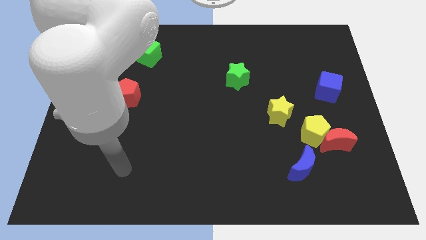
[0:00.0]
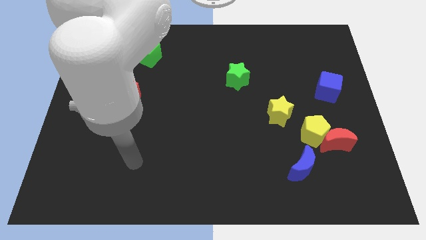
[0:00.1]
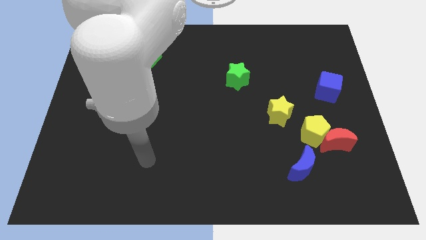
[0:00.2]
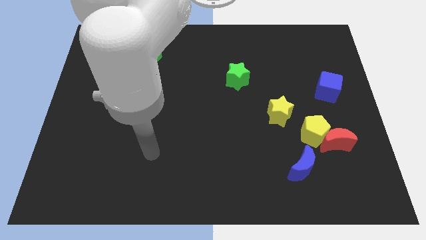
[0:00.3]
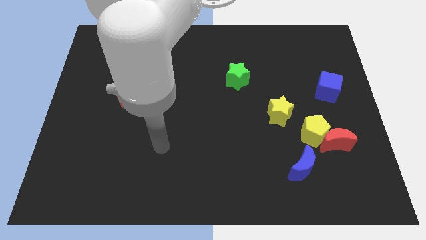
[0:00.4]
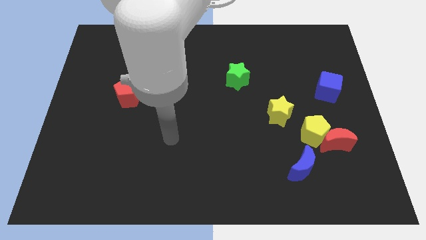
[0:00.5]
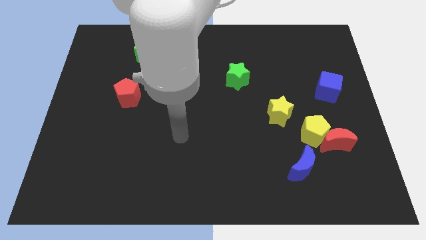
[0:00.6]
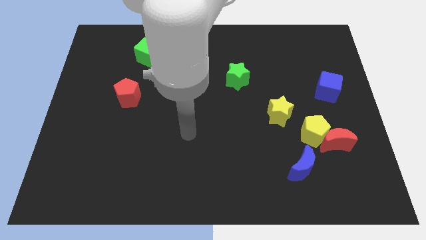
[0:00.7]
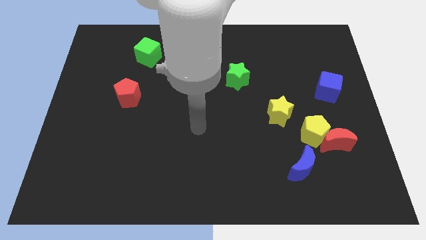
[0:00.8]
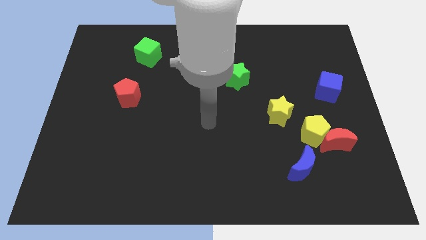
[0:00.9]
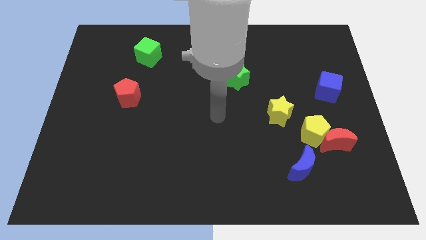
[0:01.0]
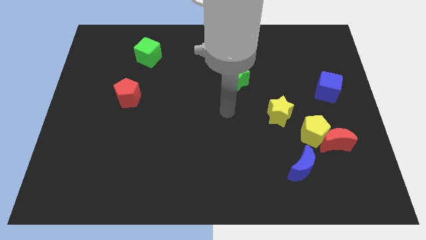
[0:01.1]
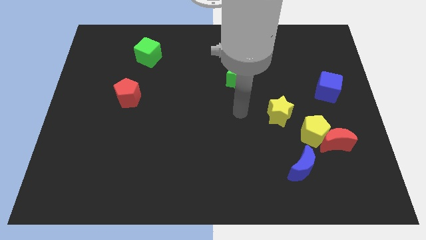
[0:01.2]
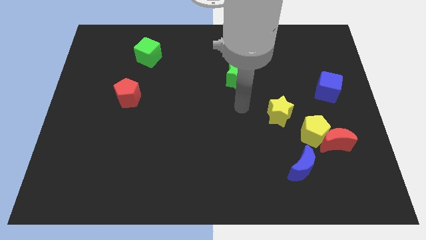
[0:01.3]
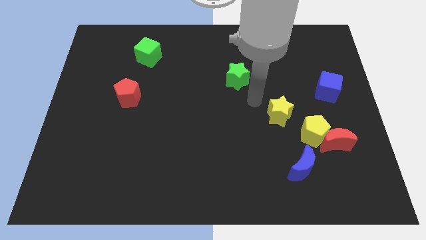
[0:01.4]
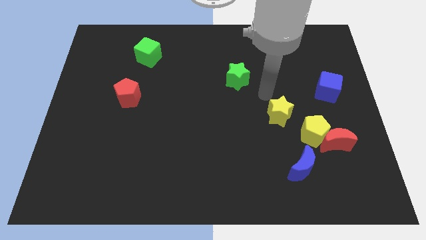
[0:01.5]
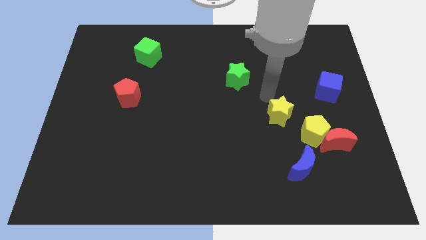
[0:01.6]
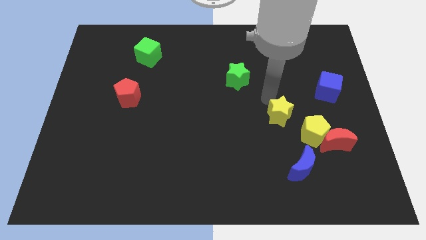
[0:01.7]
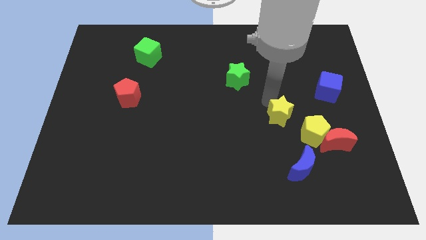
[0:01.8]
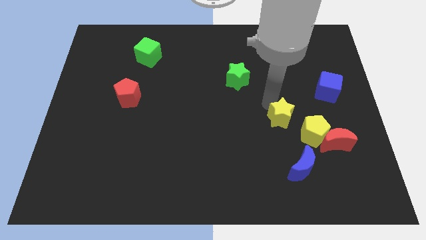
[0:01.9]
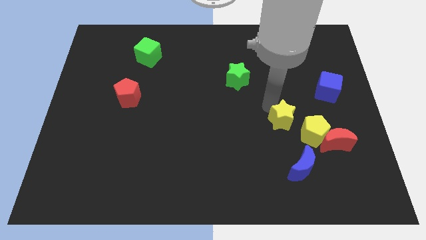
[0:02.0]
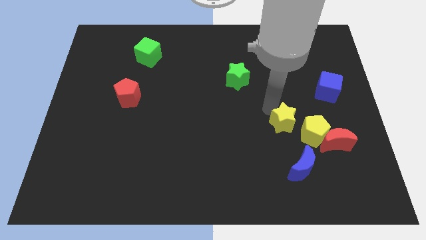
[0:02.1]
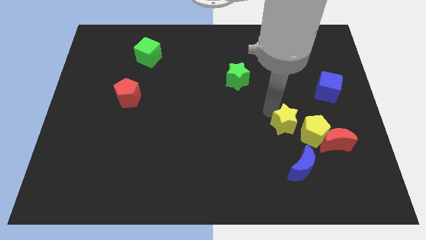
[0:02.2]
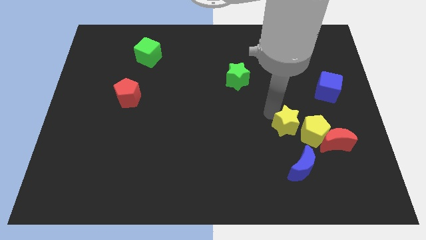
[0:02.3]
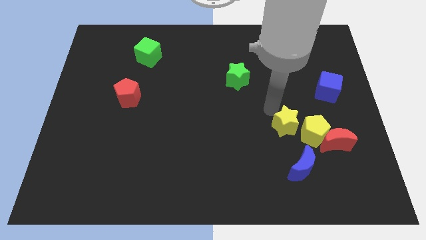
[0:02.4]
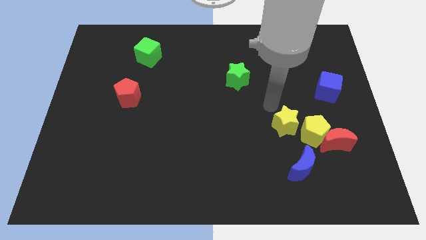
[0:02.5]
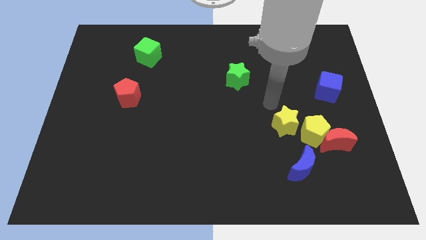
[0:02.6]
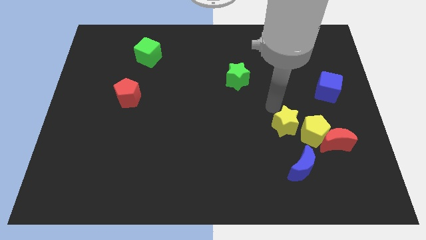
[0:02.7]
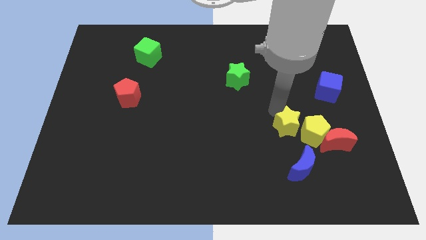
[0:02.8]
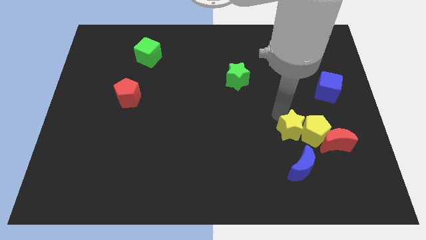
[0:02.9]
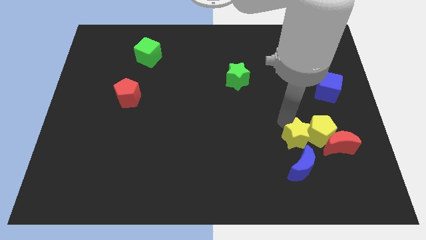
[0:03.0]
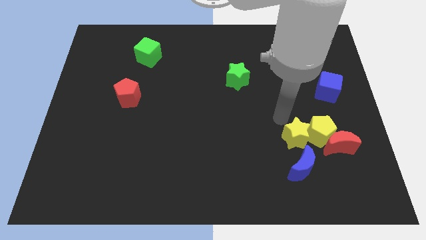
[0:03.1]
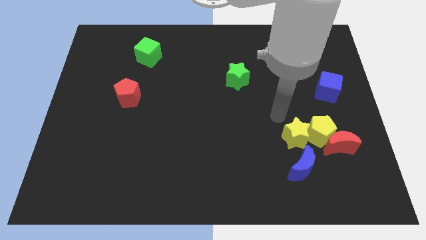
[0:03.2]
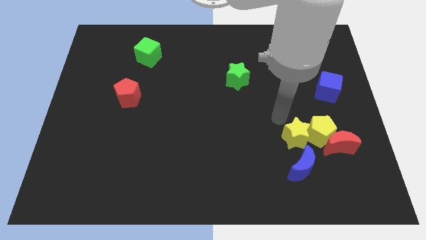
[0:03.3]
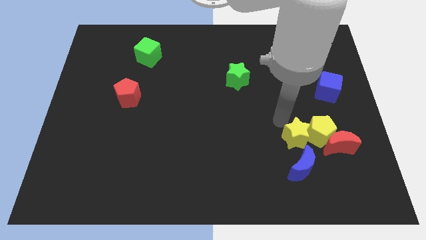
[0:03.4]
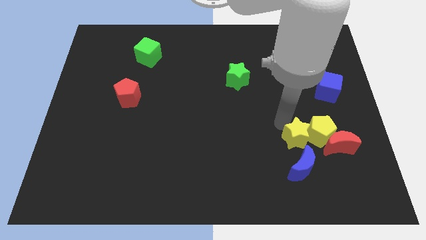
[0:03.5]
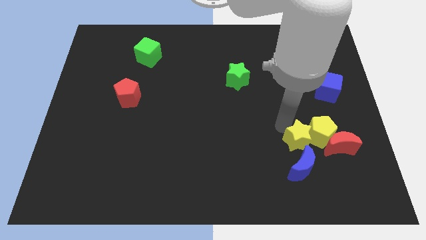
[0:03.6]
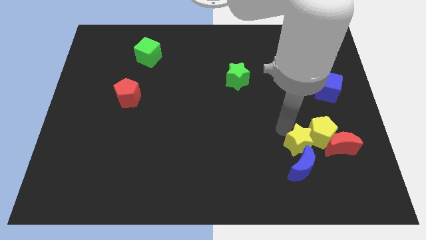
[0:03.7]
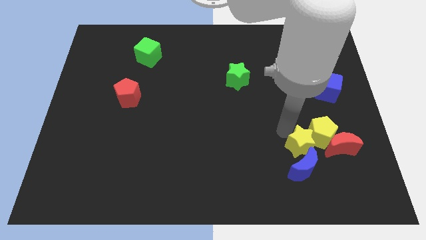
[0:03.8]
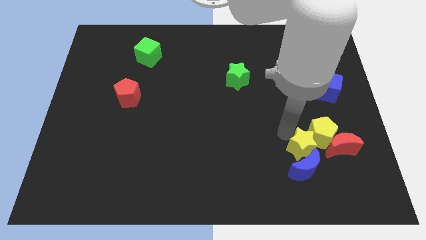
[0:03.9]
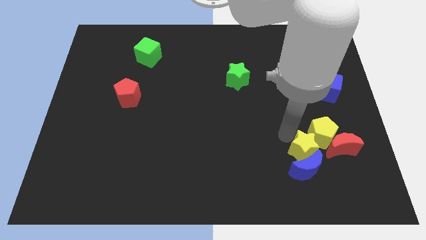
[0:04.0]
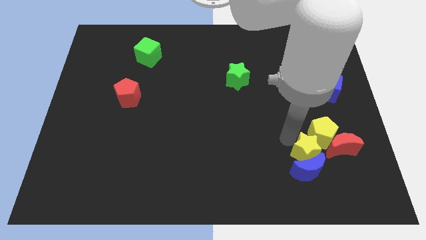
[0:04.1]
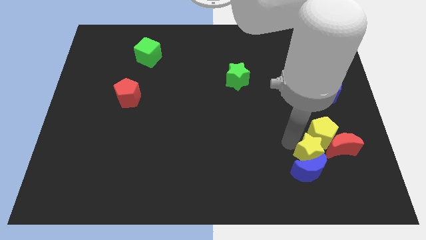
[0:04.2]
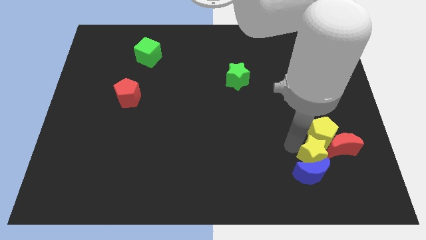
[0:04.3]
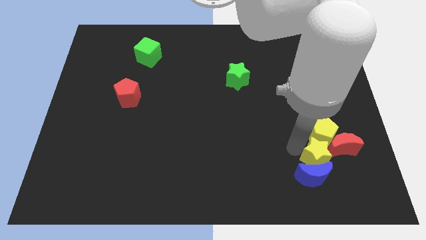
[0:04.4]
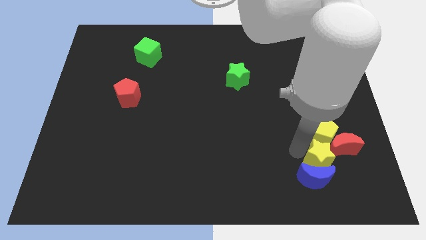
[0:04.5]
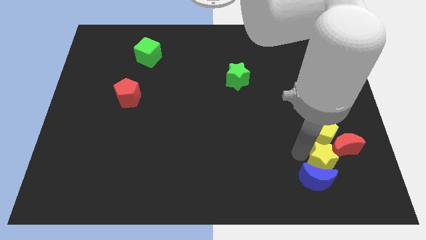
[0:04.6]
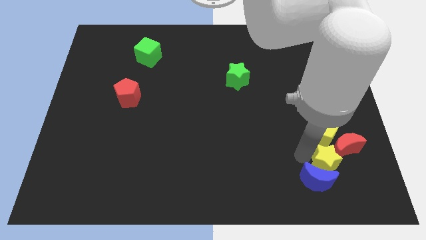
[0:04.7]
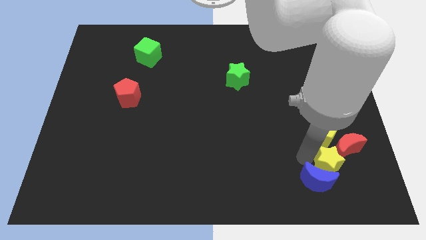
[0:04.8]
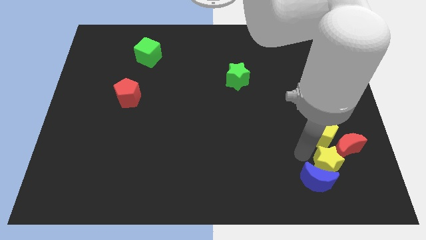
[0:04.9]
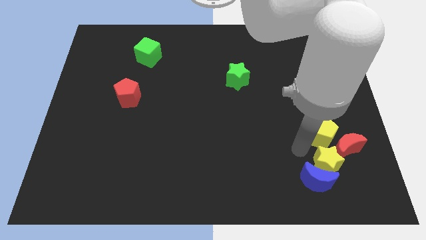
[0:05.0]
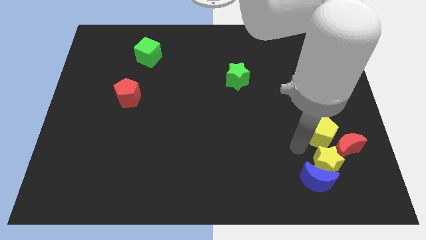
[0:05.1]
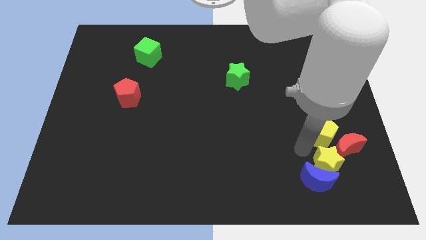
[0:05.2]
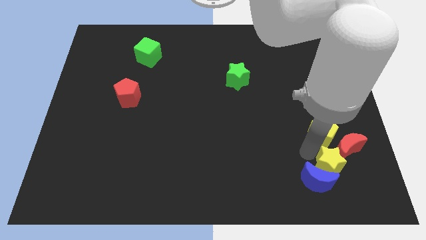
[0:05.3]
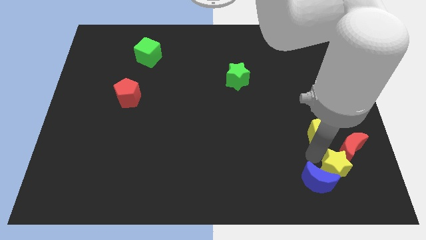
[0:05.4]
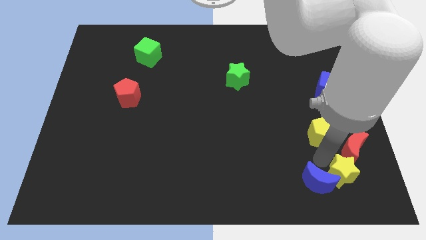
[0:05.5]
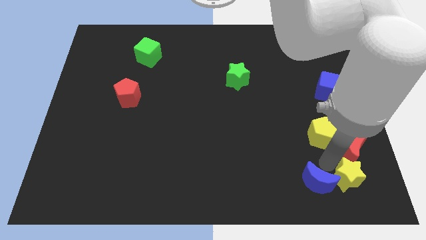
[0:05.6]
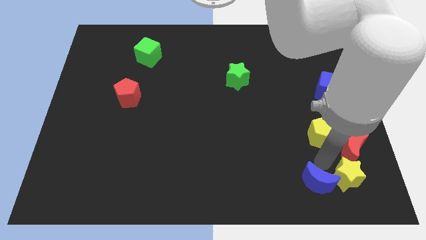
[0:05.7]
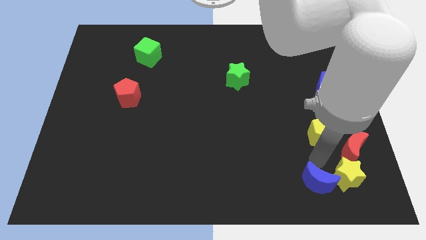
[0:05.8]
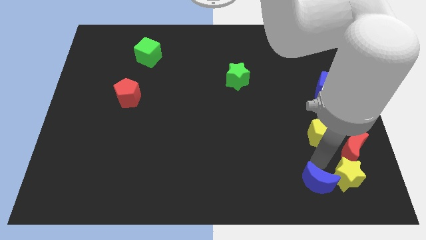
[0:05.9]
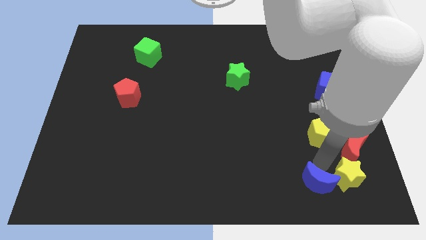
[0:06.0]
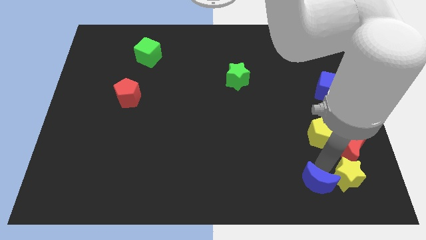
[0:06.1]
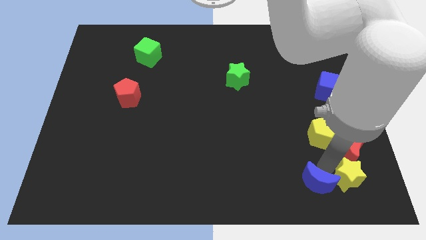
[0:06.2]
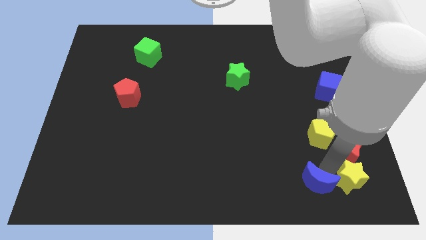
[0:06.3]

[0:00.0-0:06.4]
slide the yellow star to the lower right corner
